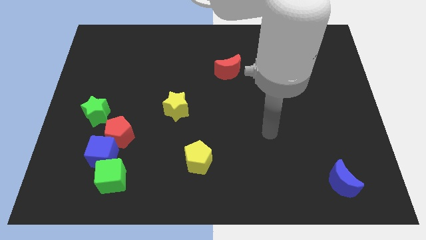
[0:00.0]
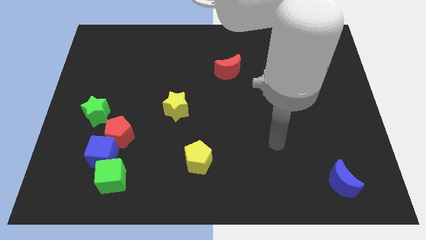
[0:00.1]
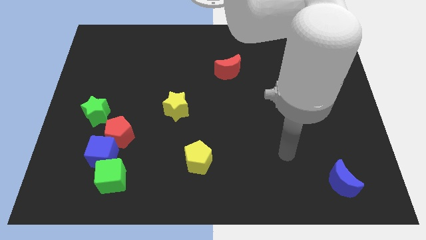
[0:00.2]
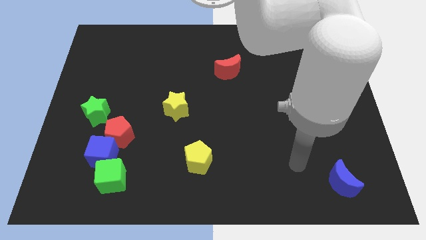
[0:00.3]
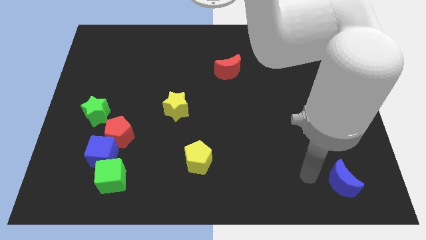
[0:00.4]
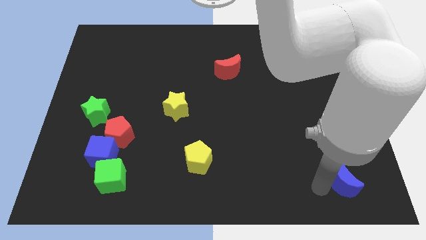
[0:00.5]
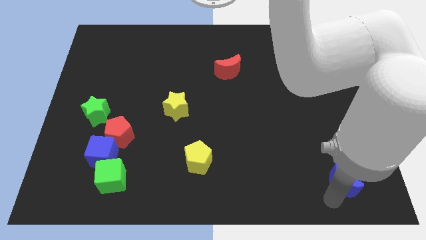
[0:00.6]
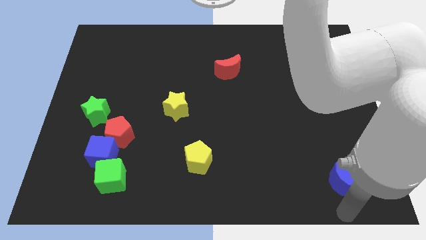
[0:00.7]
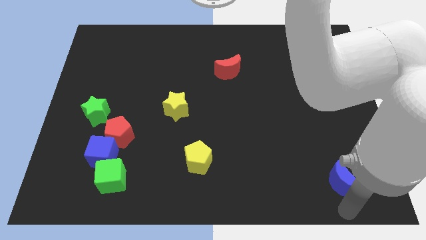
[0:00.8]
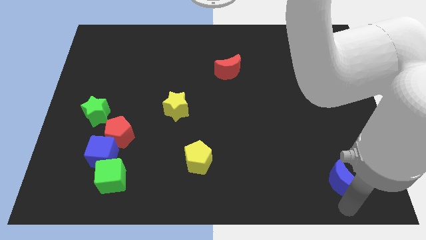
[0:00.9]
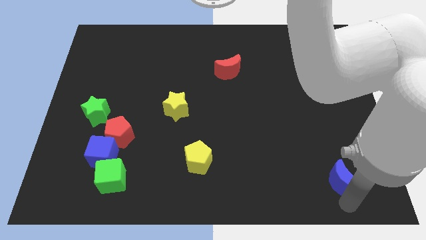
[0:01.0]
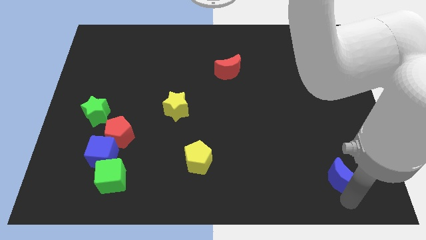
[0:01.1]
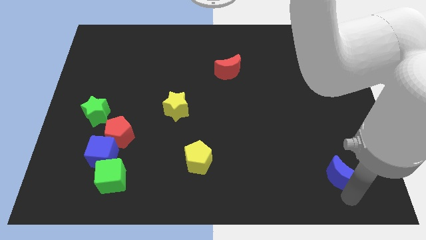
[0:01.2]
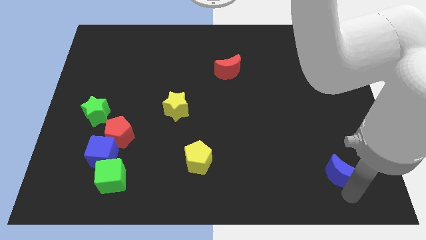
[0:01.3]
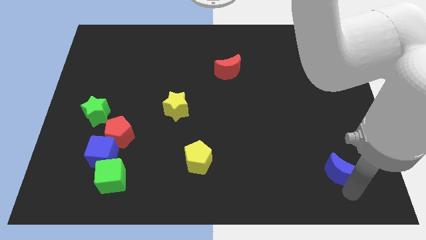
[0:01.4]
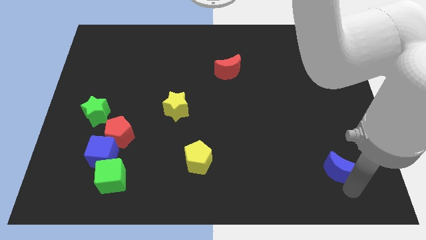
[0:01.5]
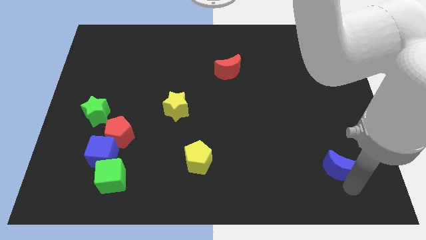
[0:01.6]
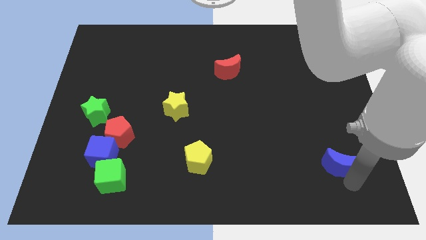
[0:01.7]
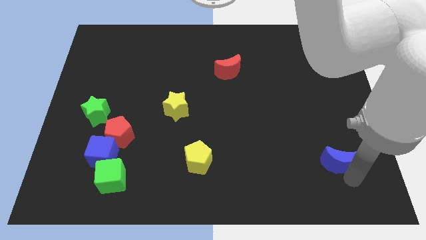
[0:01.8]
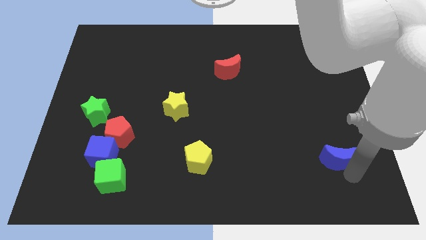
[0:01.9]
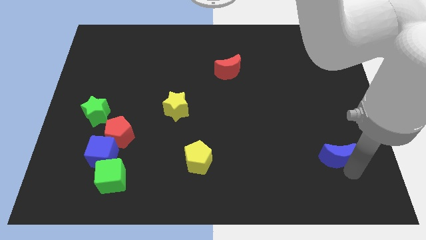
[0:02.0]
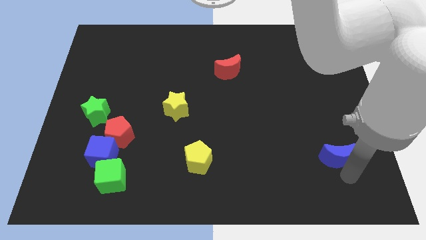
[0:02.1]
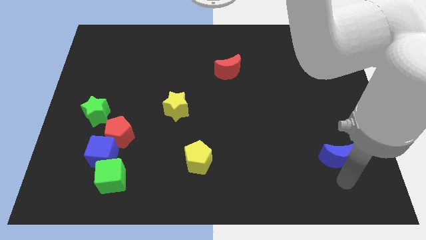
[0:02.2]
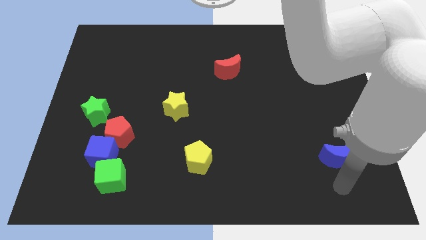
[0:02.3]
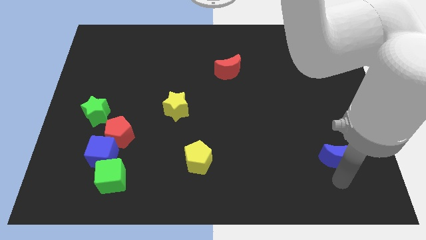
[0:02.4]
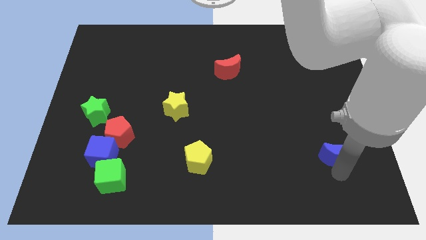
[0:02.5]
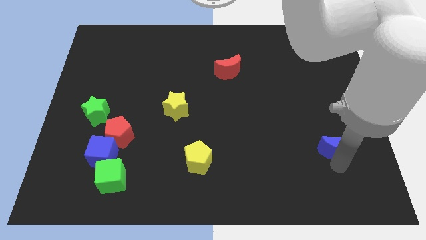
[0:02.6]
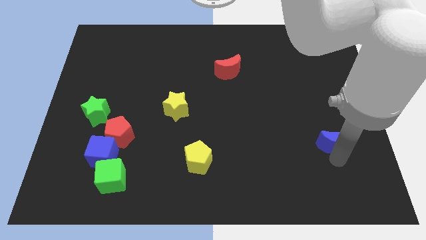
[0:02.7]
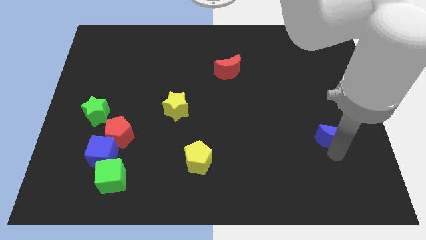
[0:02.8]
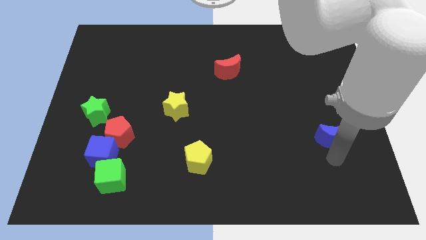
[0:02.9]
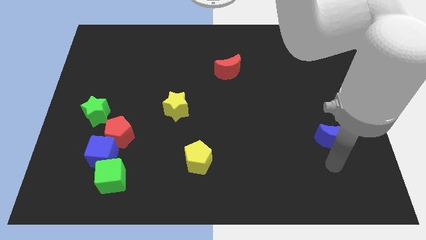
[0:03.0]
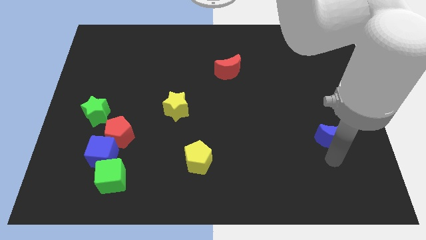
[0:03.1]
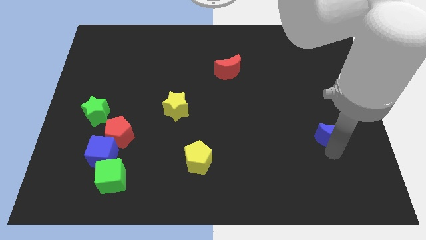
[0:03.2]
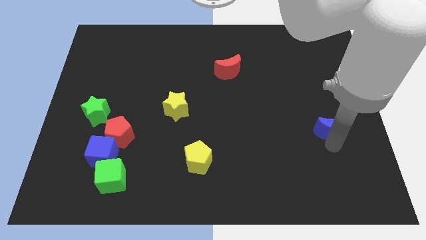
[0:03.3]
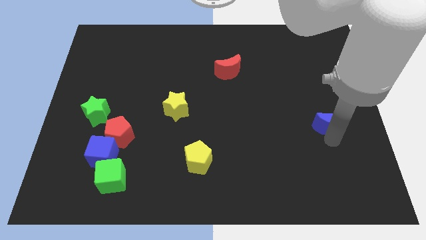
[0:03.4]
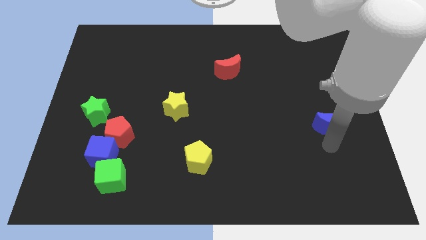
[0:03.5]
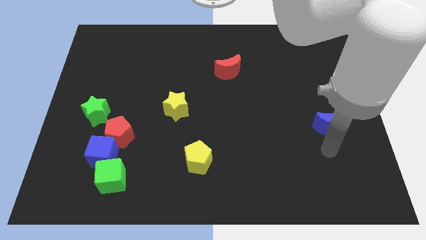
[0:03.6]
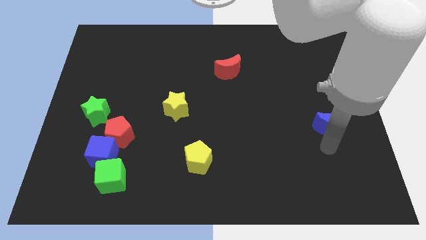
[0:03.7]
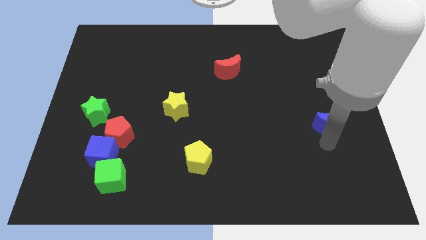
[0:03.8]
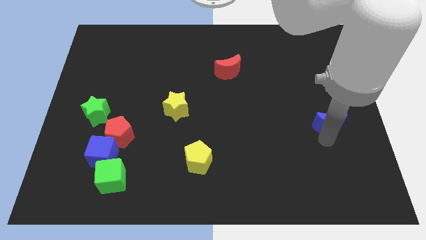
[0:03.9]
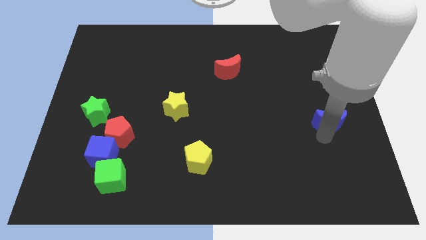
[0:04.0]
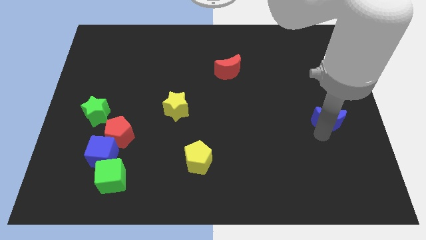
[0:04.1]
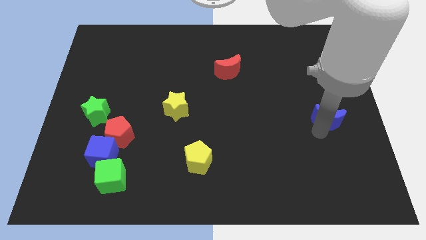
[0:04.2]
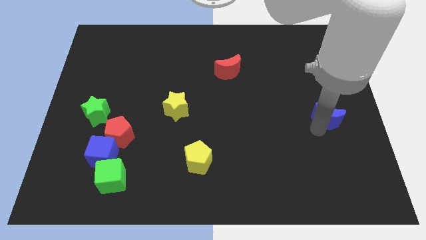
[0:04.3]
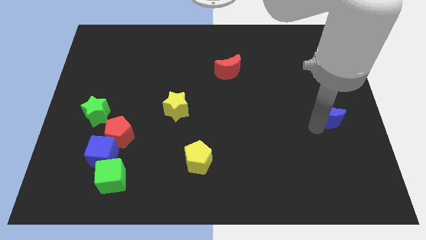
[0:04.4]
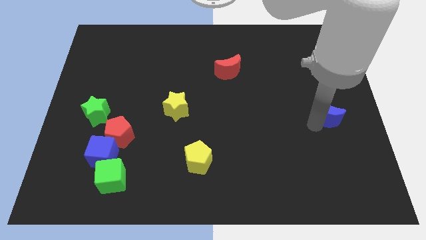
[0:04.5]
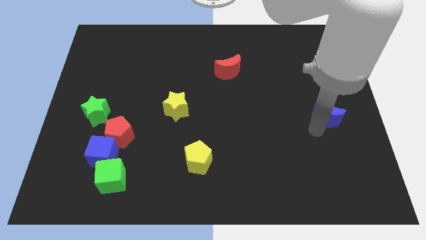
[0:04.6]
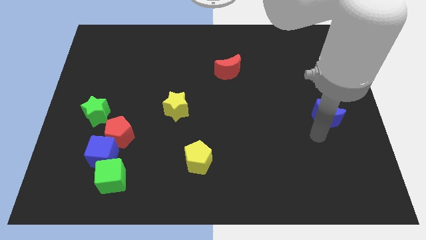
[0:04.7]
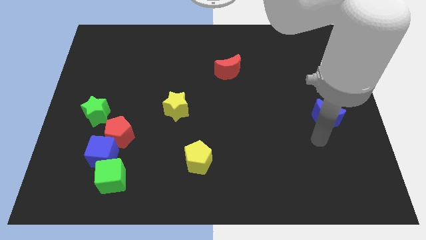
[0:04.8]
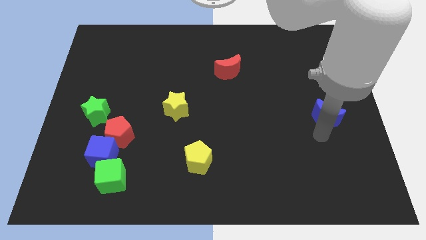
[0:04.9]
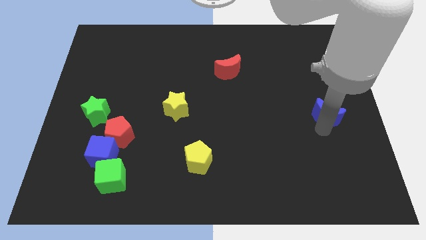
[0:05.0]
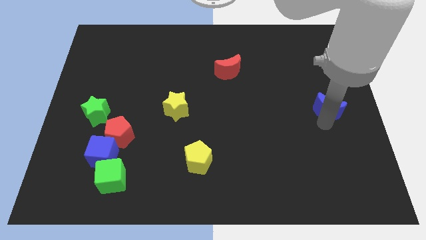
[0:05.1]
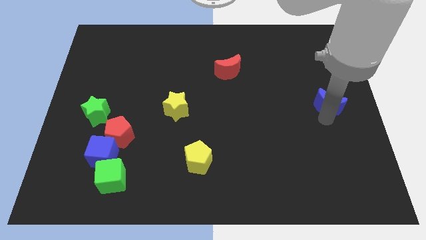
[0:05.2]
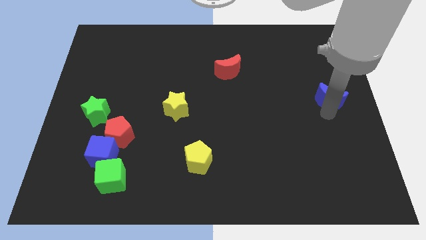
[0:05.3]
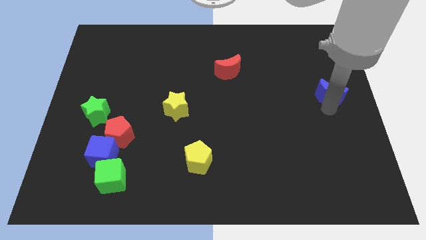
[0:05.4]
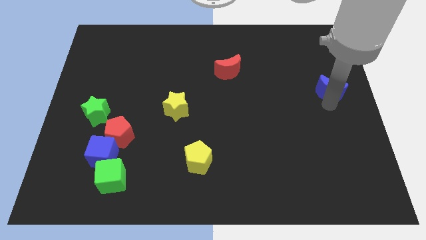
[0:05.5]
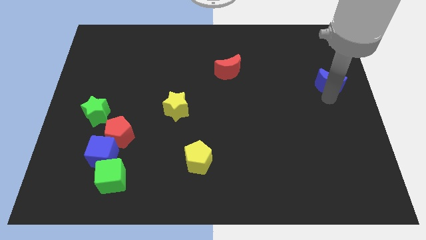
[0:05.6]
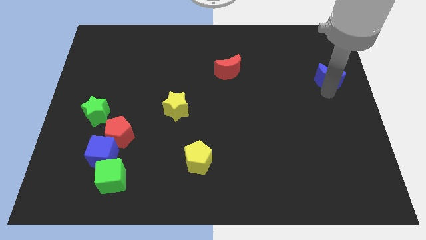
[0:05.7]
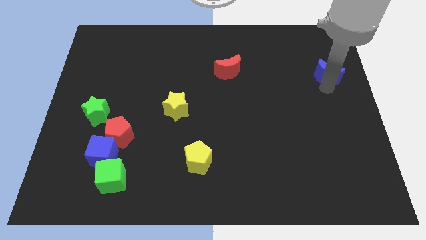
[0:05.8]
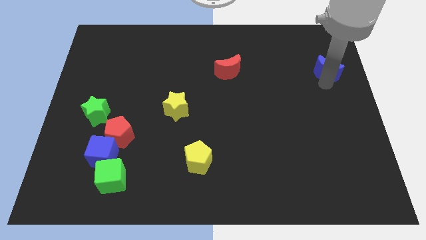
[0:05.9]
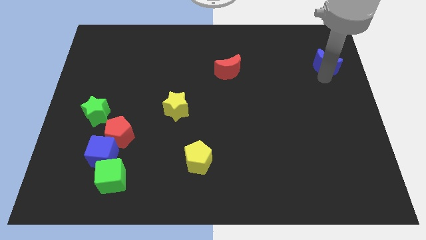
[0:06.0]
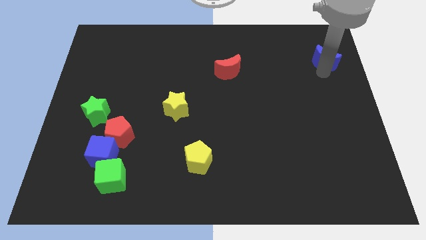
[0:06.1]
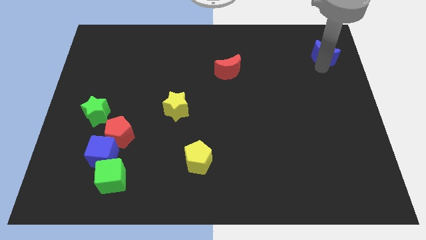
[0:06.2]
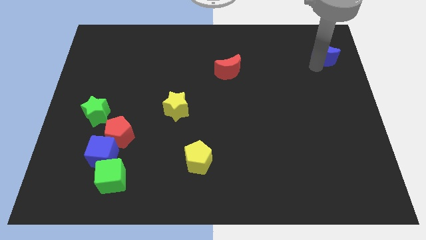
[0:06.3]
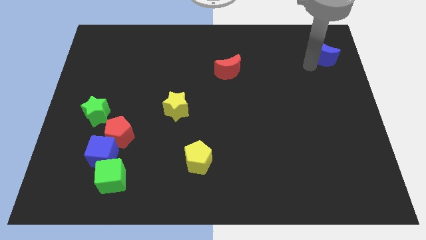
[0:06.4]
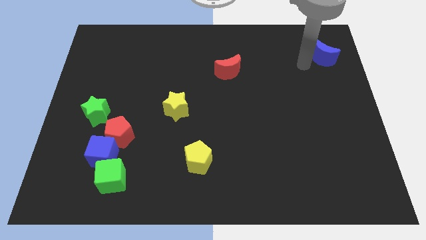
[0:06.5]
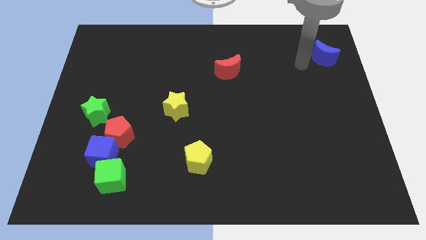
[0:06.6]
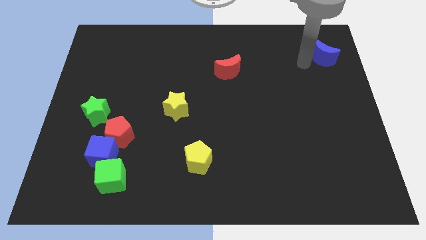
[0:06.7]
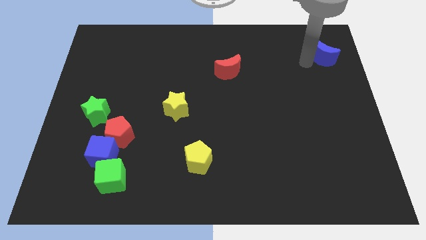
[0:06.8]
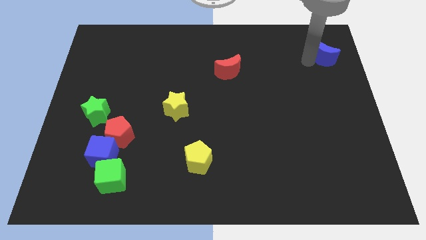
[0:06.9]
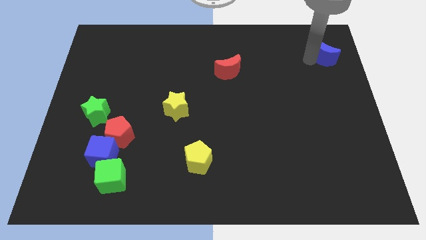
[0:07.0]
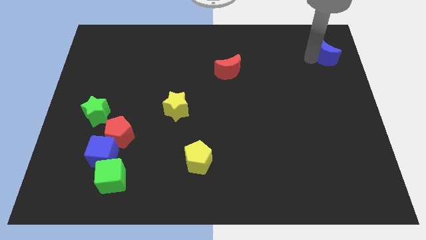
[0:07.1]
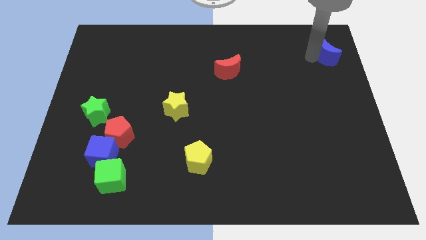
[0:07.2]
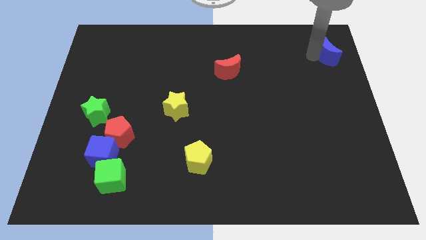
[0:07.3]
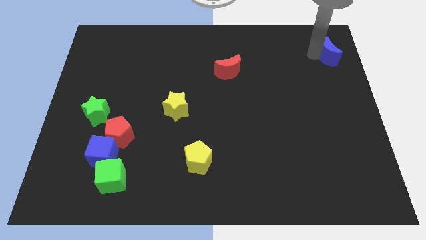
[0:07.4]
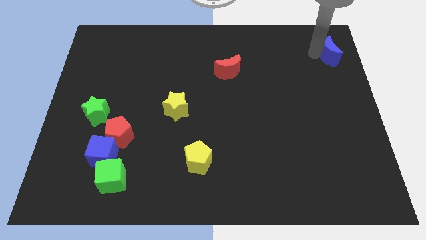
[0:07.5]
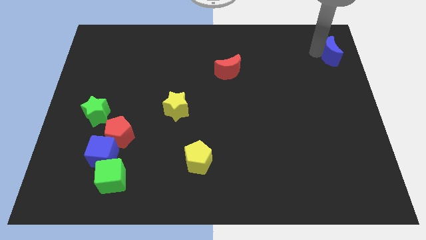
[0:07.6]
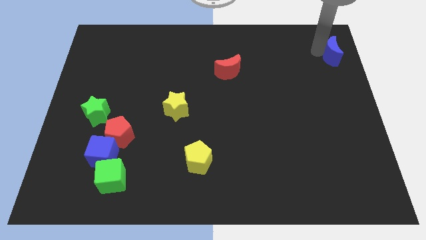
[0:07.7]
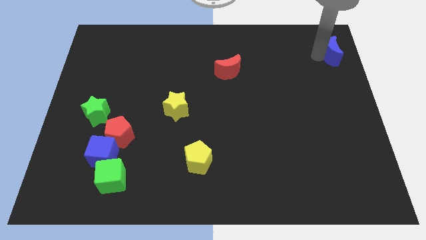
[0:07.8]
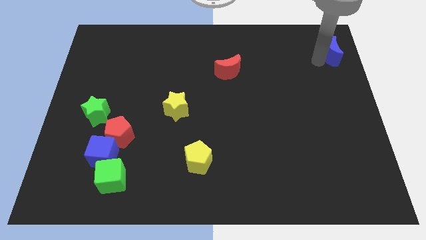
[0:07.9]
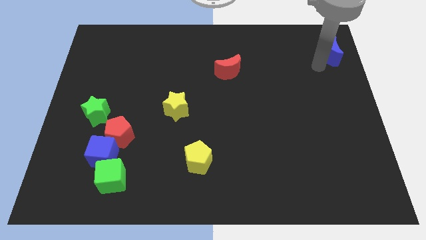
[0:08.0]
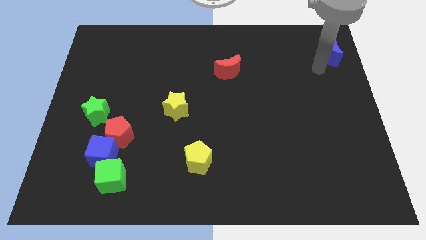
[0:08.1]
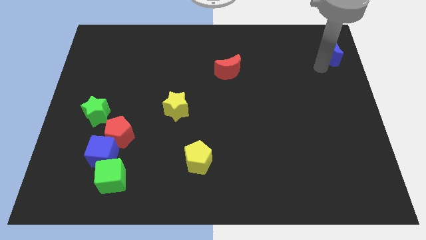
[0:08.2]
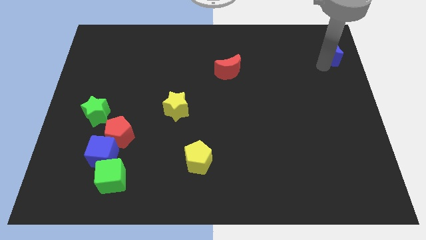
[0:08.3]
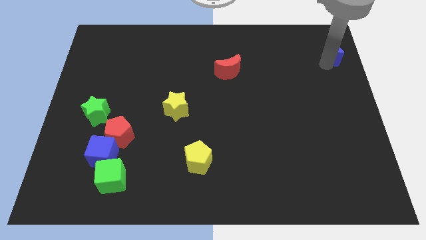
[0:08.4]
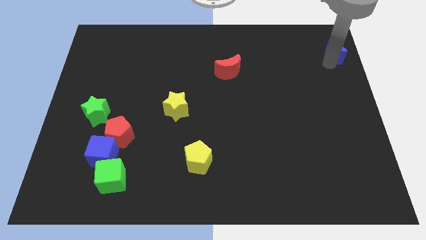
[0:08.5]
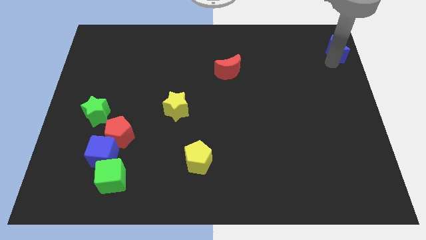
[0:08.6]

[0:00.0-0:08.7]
put the blue moon to the top right corner
